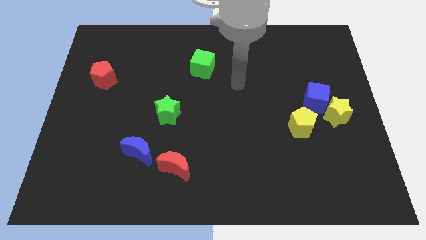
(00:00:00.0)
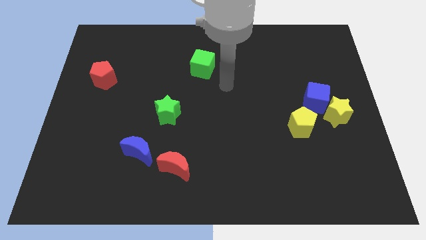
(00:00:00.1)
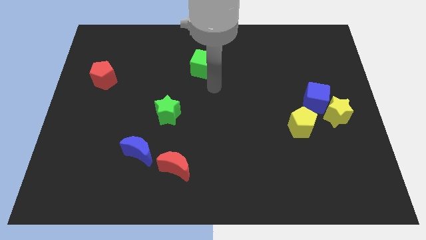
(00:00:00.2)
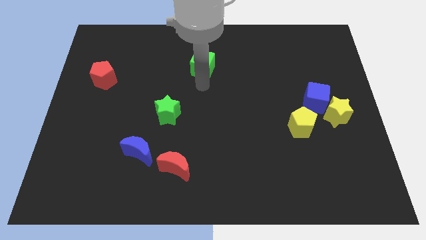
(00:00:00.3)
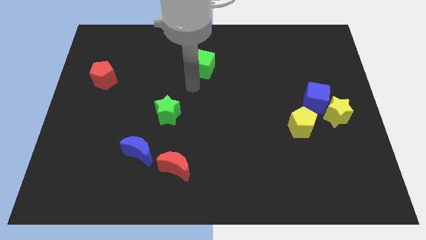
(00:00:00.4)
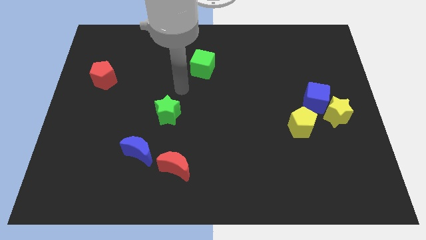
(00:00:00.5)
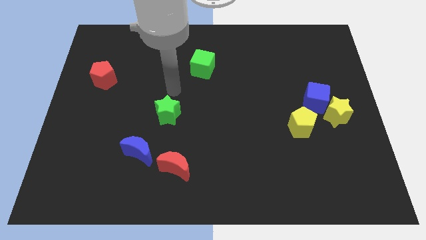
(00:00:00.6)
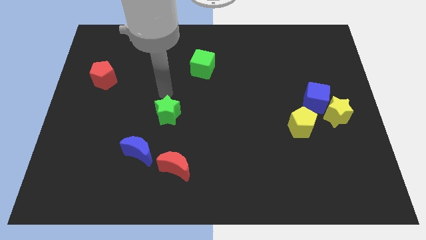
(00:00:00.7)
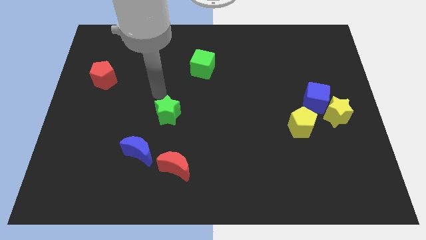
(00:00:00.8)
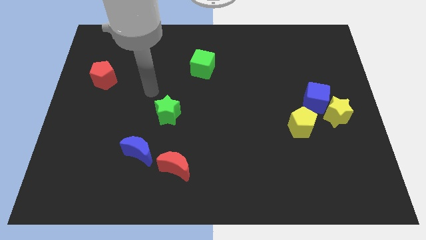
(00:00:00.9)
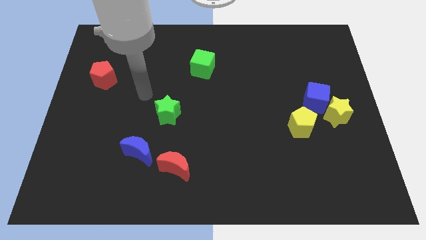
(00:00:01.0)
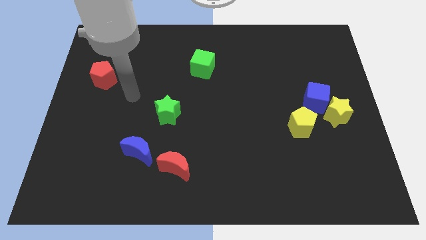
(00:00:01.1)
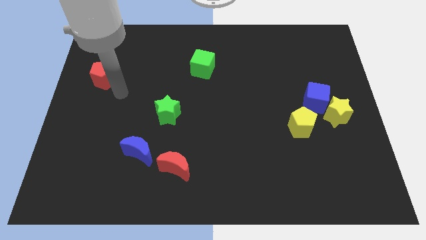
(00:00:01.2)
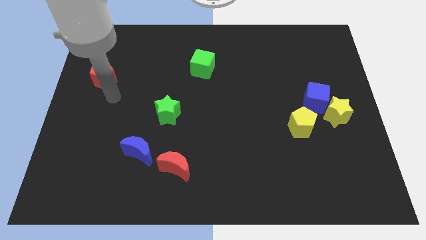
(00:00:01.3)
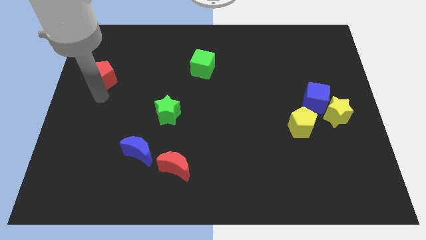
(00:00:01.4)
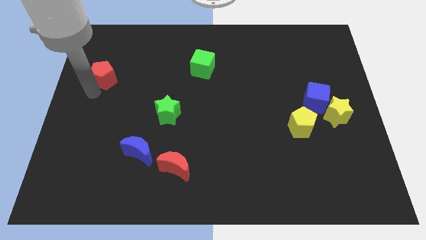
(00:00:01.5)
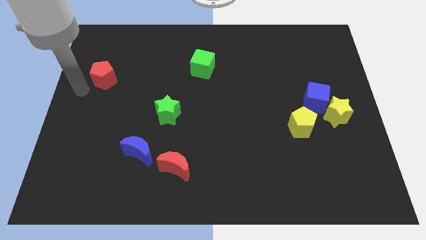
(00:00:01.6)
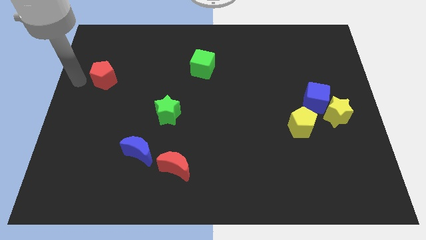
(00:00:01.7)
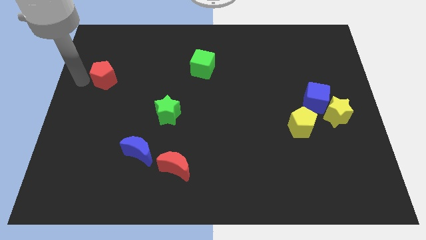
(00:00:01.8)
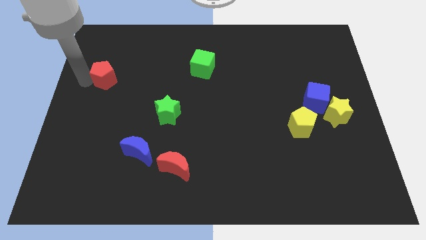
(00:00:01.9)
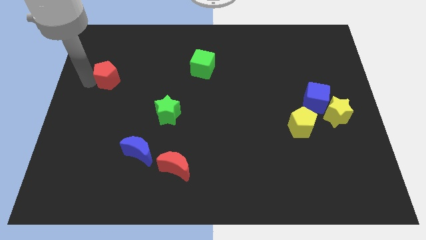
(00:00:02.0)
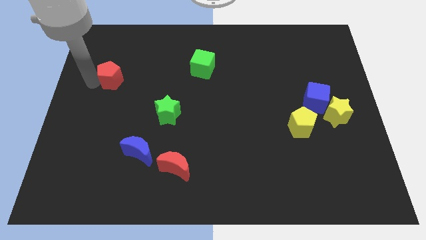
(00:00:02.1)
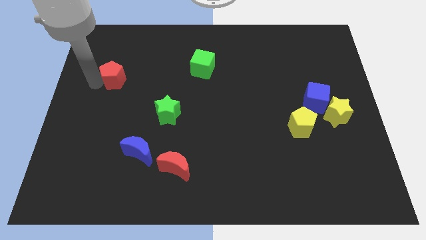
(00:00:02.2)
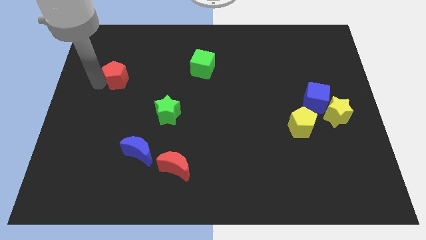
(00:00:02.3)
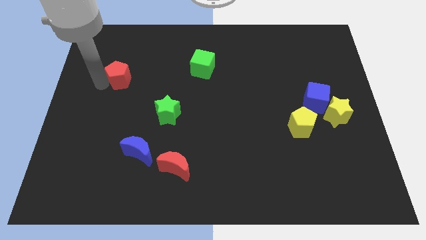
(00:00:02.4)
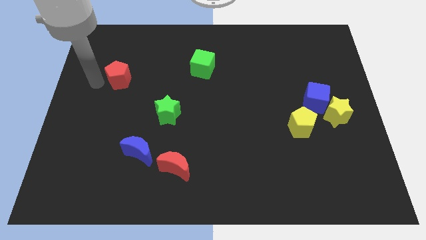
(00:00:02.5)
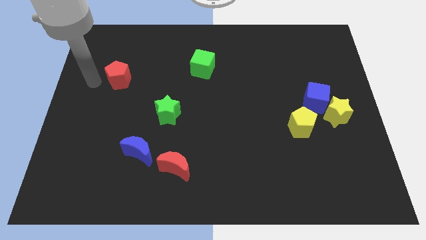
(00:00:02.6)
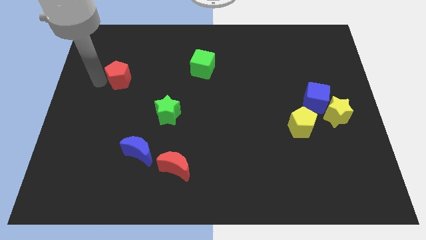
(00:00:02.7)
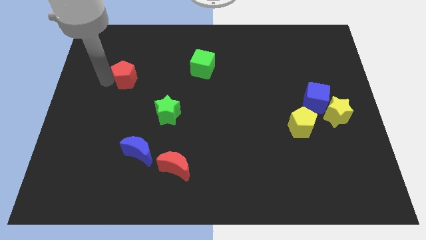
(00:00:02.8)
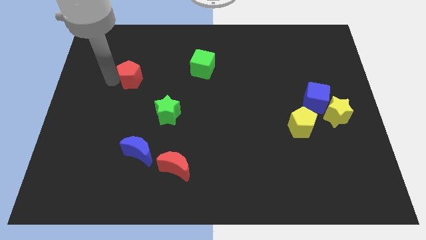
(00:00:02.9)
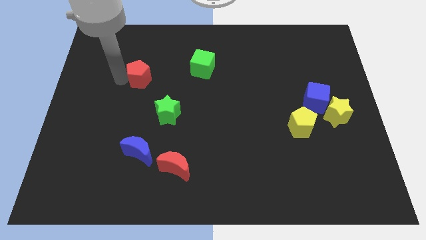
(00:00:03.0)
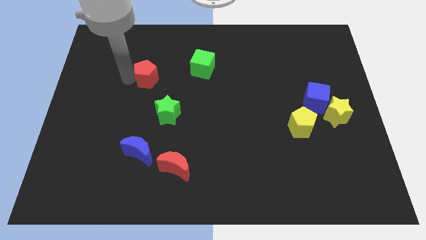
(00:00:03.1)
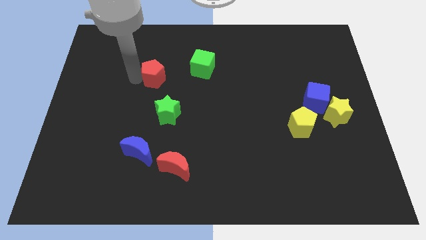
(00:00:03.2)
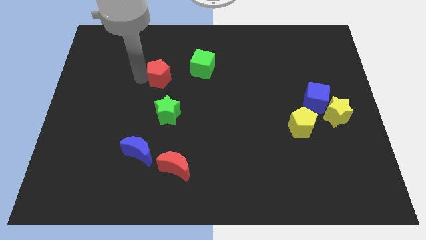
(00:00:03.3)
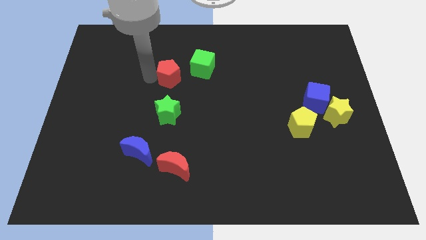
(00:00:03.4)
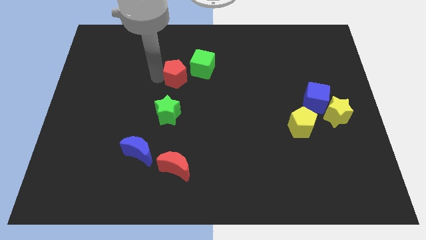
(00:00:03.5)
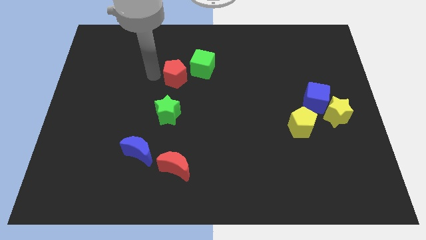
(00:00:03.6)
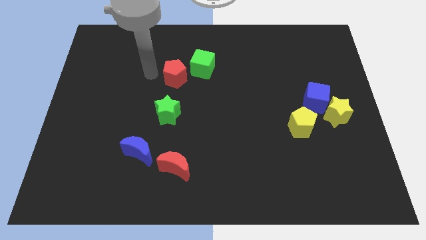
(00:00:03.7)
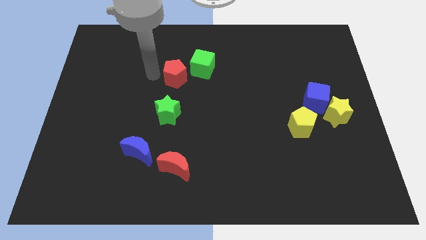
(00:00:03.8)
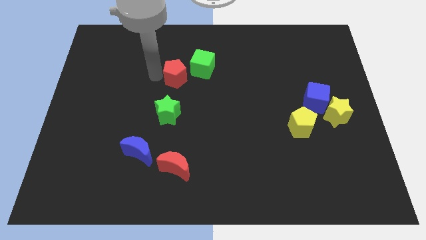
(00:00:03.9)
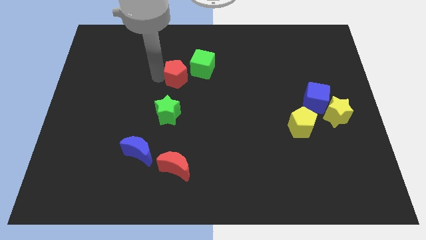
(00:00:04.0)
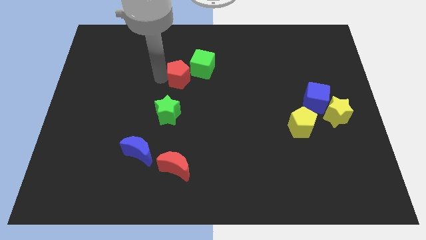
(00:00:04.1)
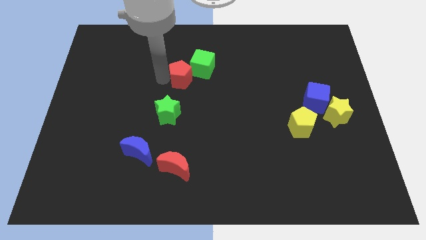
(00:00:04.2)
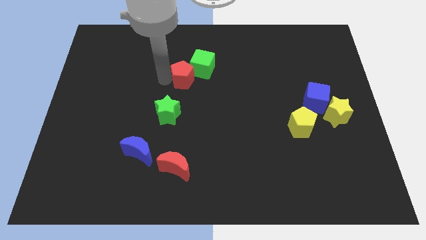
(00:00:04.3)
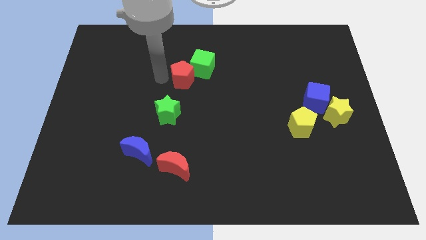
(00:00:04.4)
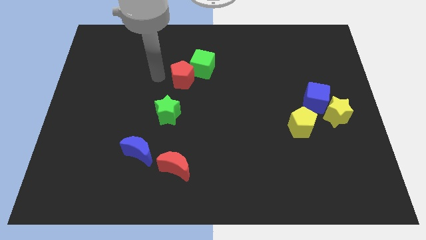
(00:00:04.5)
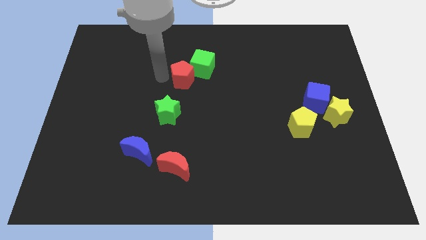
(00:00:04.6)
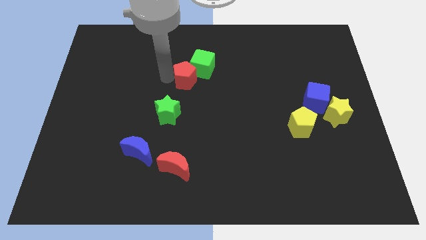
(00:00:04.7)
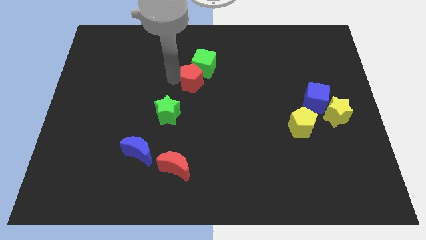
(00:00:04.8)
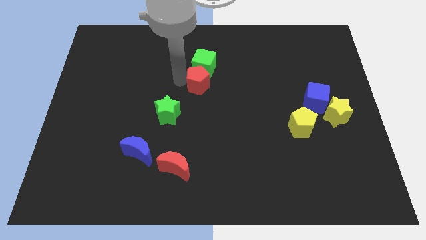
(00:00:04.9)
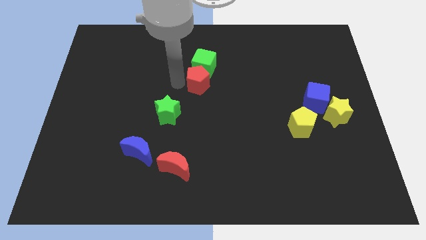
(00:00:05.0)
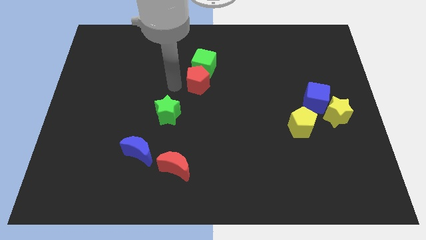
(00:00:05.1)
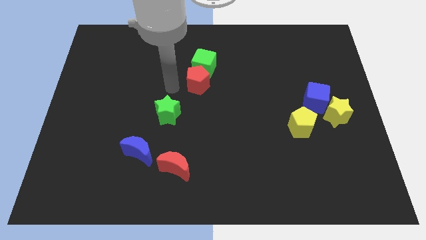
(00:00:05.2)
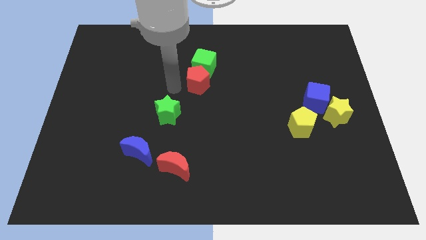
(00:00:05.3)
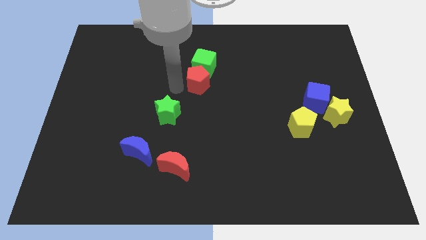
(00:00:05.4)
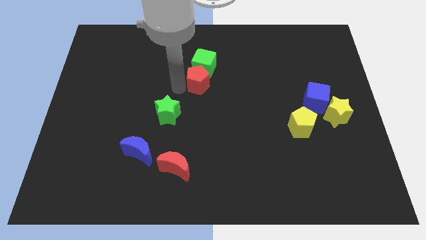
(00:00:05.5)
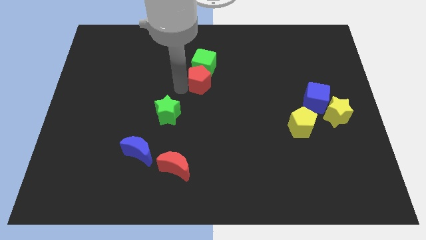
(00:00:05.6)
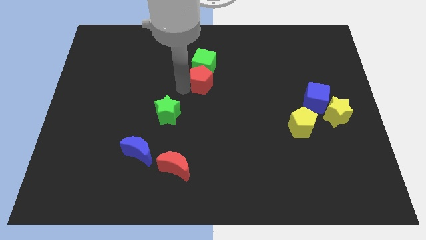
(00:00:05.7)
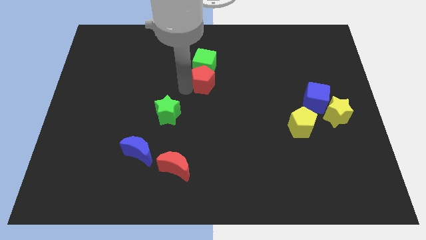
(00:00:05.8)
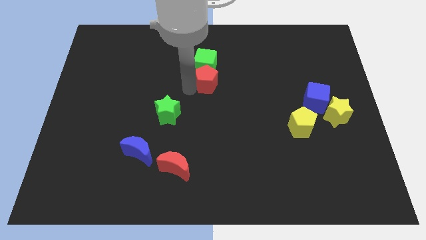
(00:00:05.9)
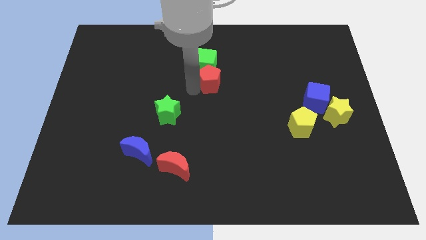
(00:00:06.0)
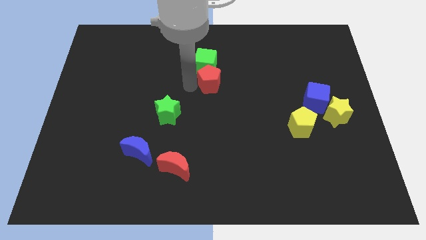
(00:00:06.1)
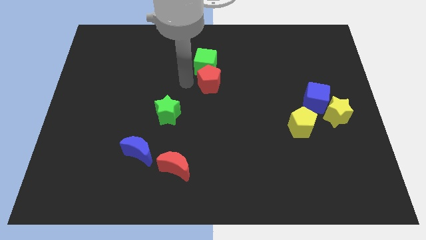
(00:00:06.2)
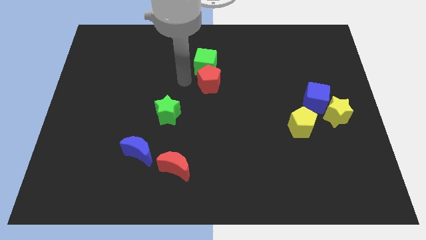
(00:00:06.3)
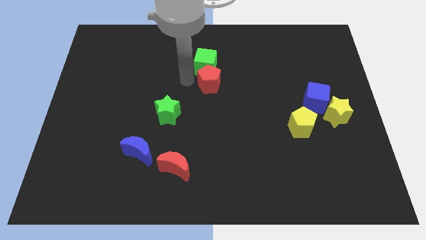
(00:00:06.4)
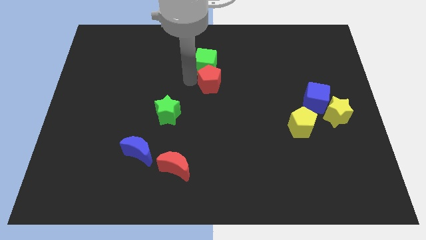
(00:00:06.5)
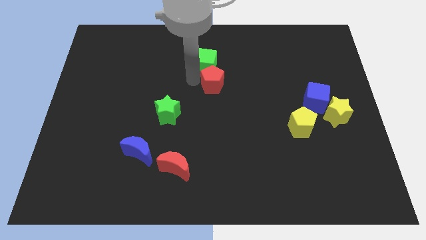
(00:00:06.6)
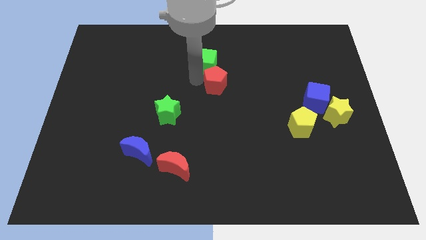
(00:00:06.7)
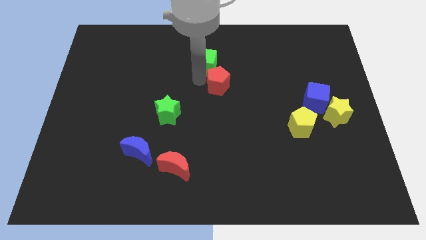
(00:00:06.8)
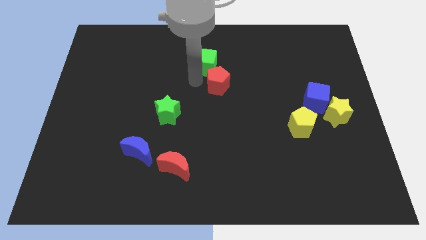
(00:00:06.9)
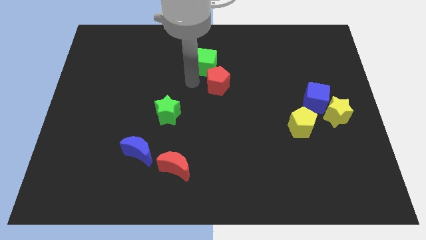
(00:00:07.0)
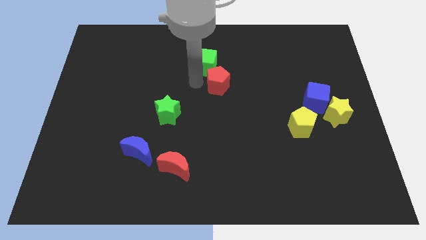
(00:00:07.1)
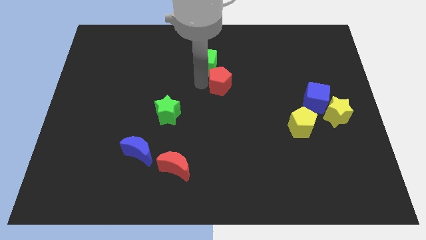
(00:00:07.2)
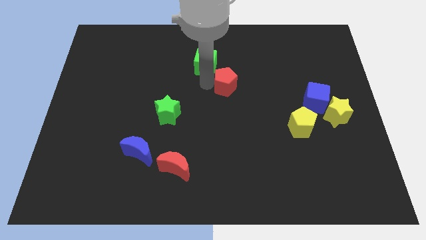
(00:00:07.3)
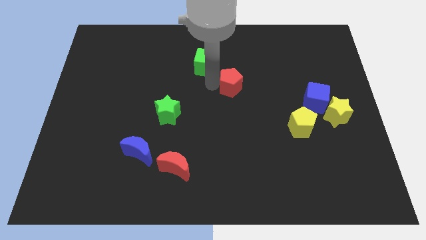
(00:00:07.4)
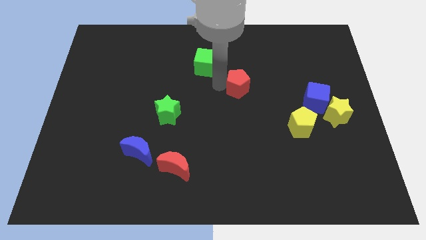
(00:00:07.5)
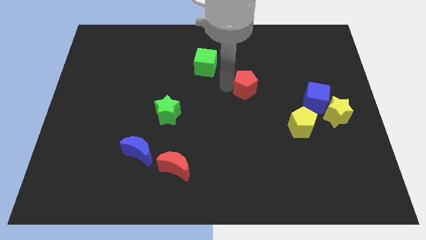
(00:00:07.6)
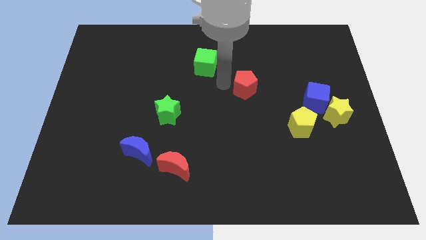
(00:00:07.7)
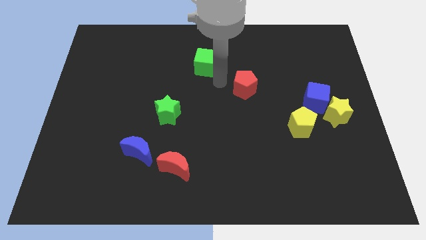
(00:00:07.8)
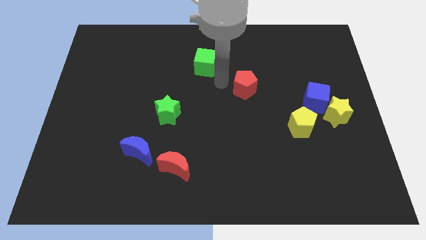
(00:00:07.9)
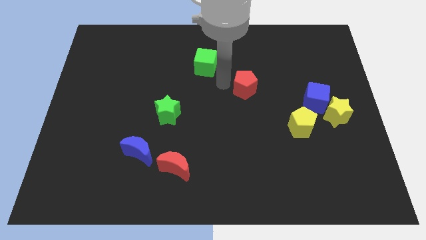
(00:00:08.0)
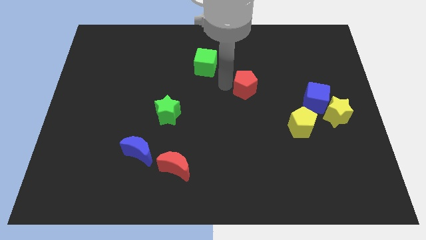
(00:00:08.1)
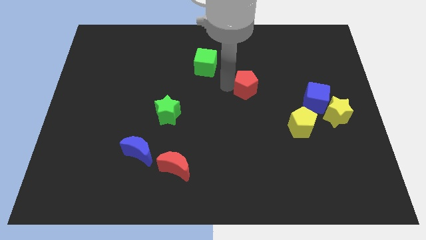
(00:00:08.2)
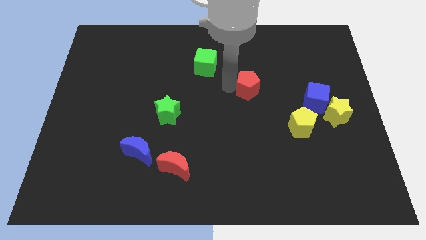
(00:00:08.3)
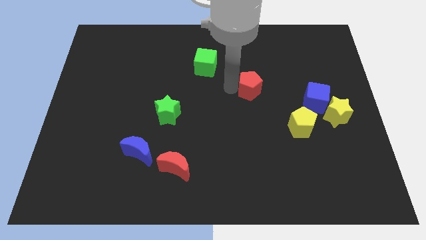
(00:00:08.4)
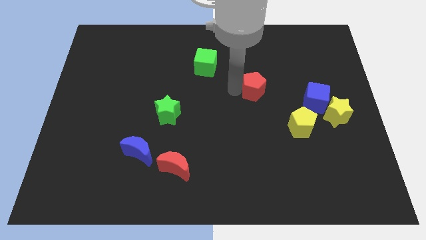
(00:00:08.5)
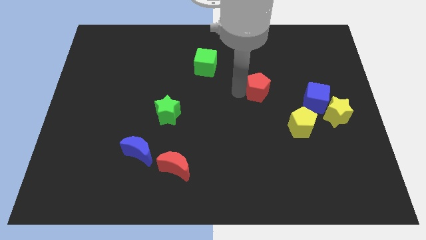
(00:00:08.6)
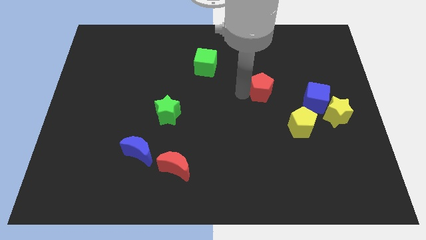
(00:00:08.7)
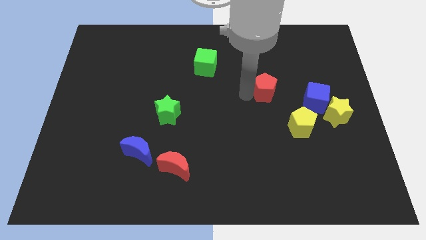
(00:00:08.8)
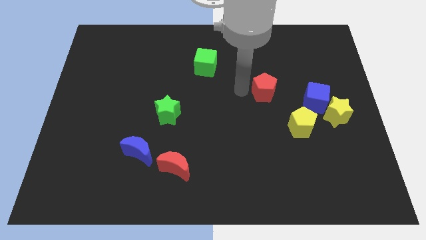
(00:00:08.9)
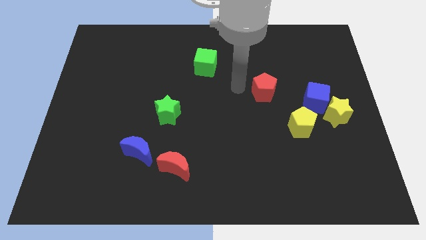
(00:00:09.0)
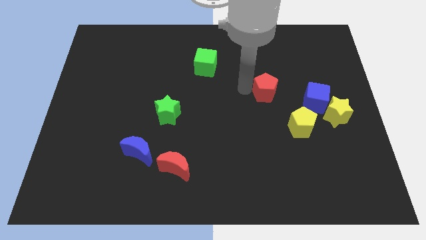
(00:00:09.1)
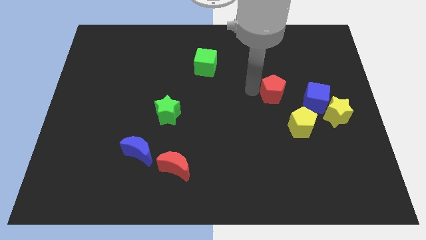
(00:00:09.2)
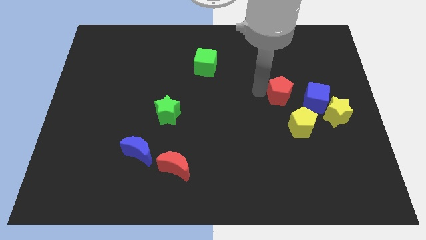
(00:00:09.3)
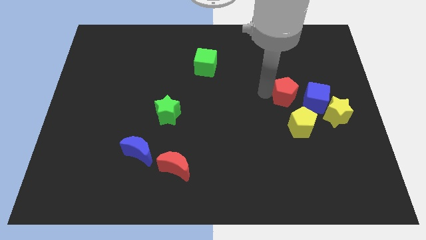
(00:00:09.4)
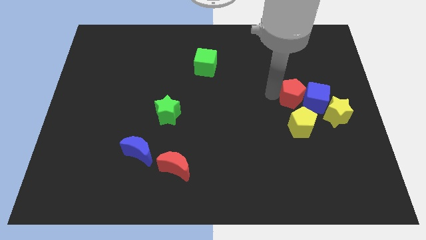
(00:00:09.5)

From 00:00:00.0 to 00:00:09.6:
move the red pentagon next to the blue cube
